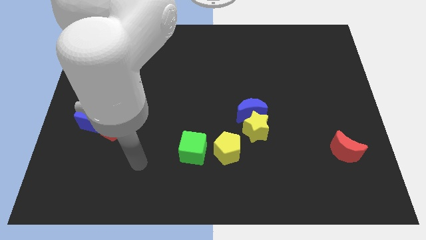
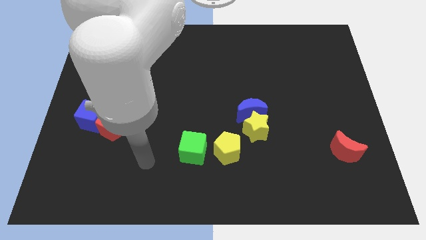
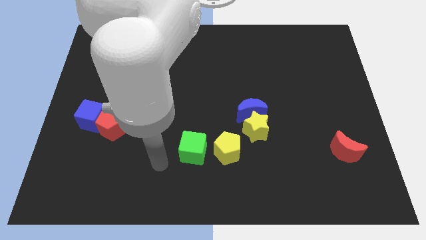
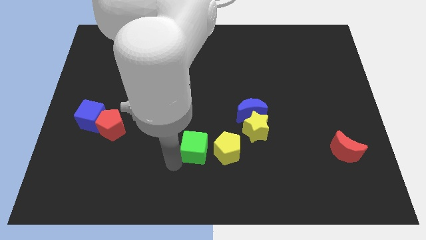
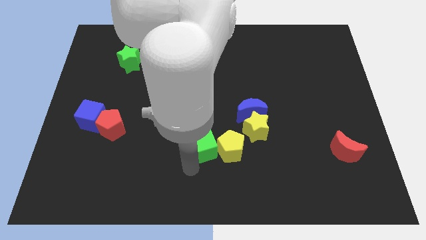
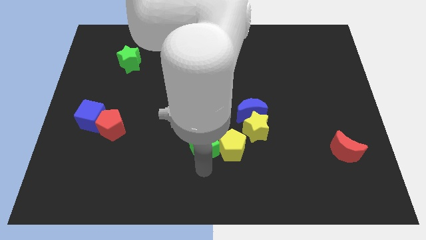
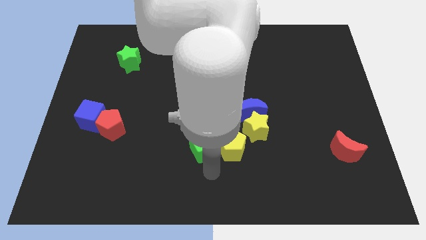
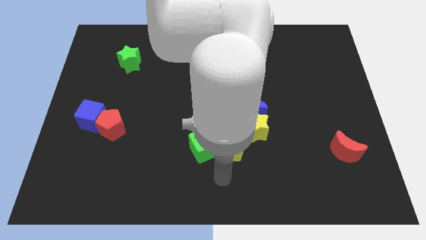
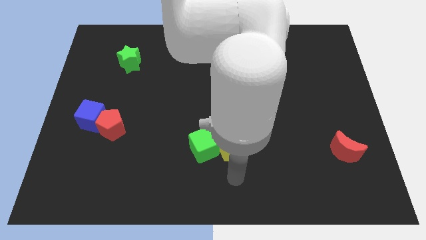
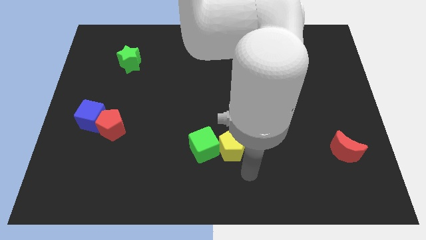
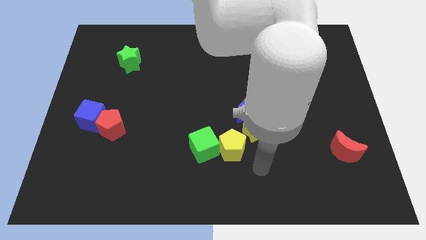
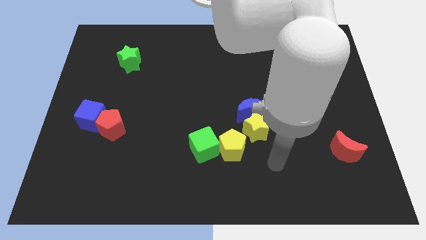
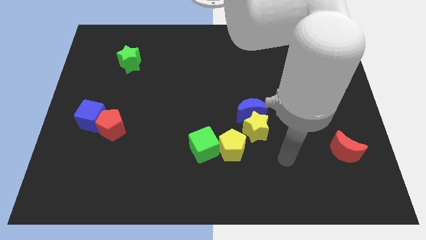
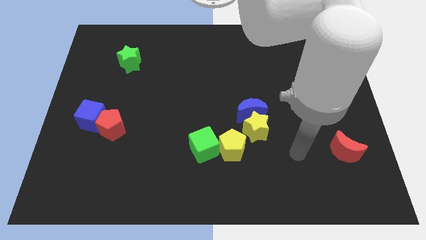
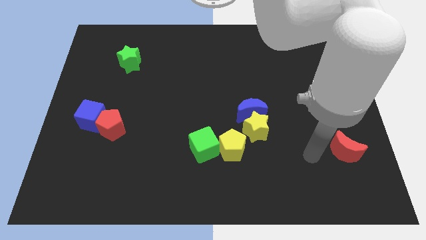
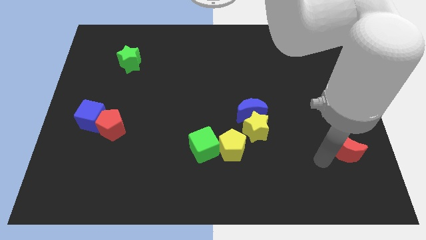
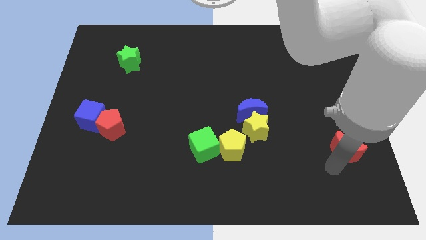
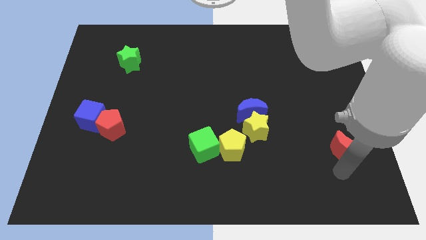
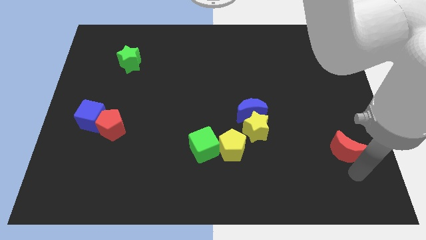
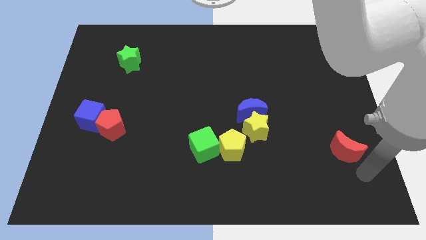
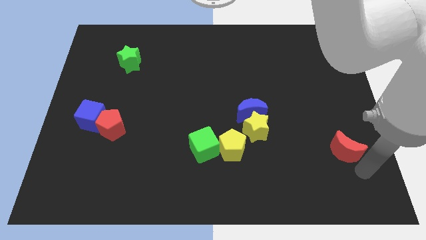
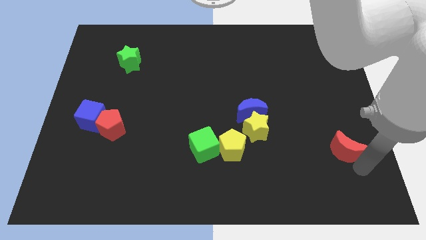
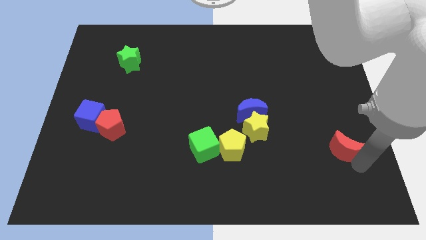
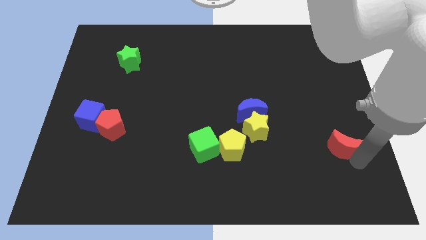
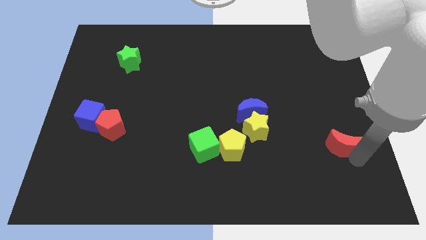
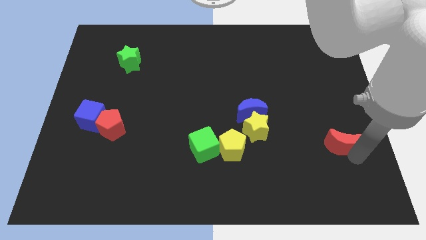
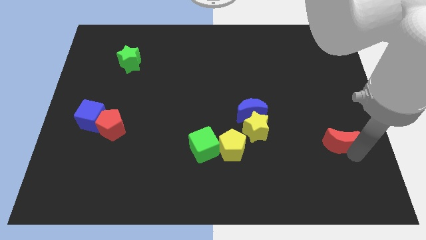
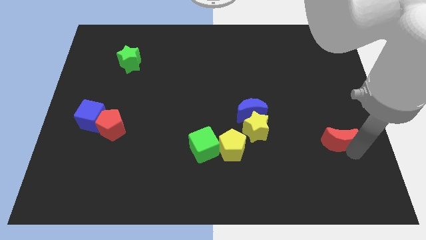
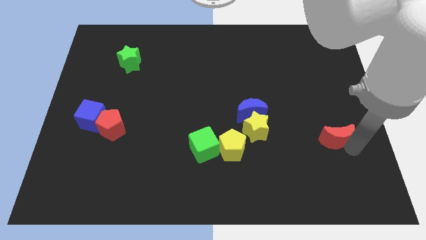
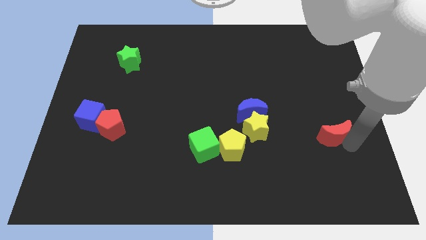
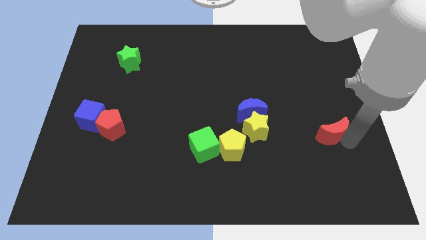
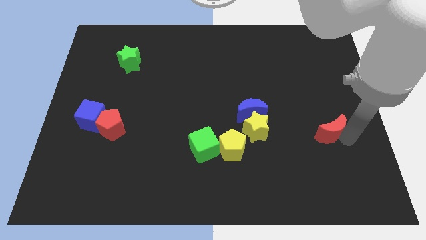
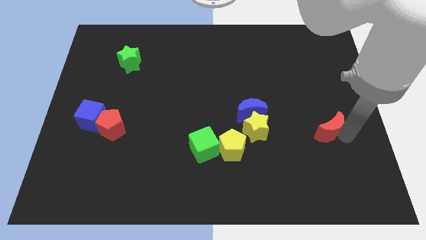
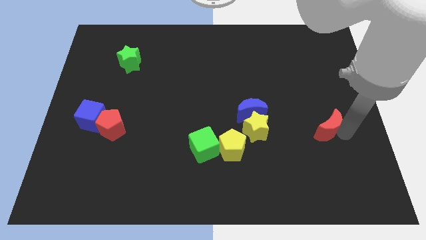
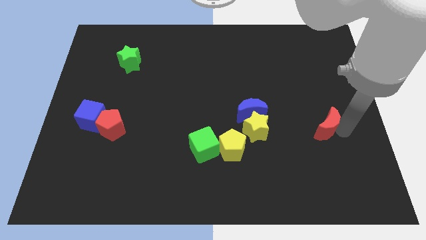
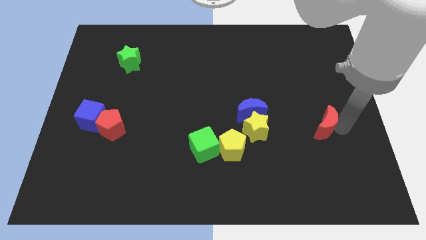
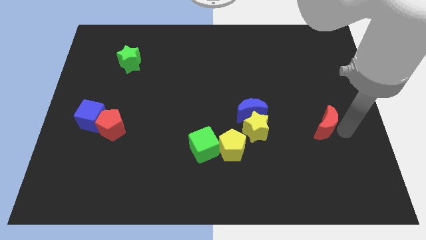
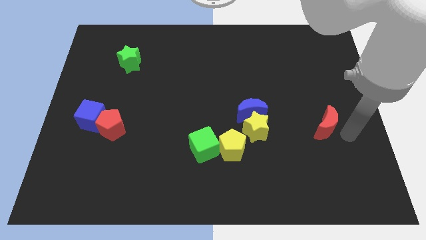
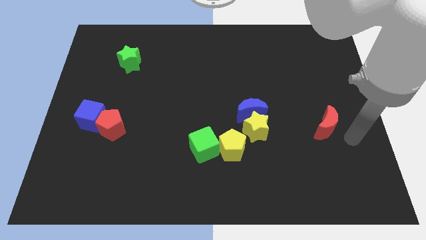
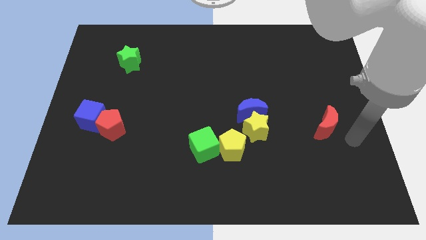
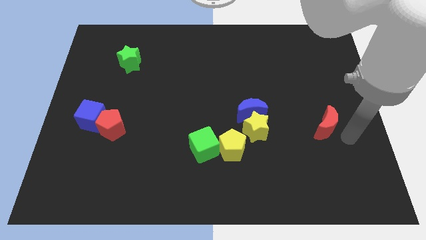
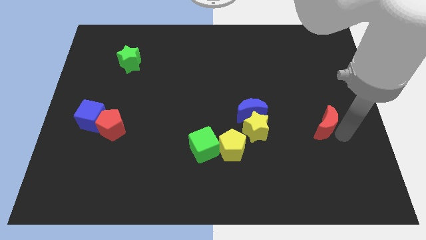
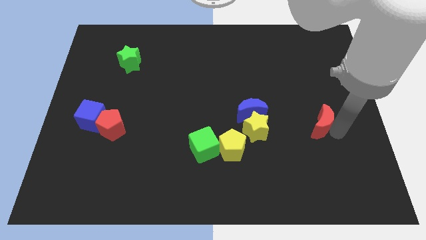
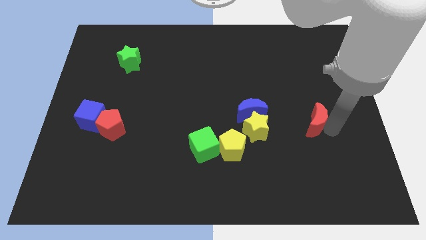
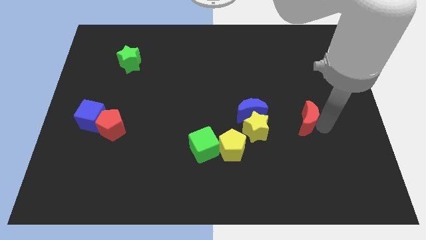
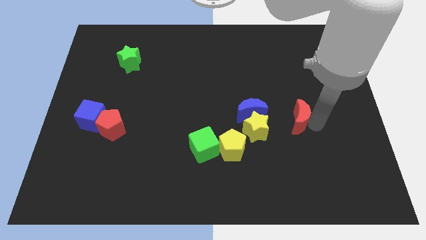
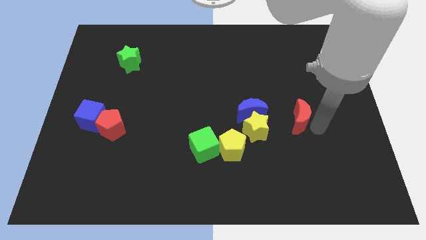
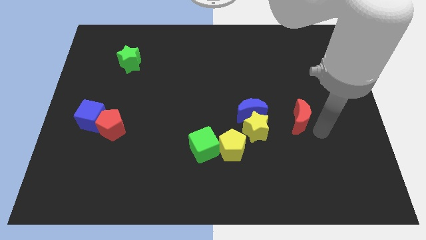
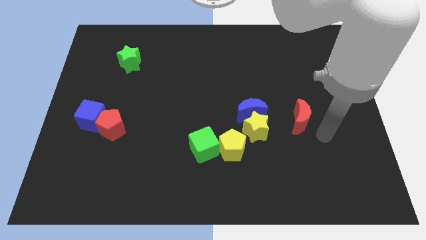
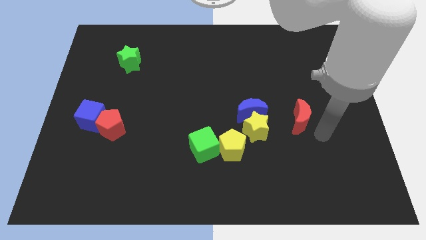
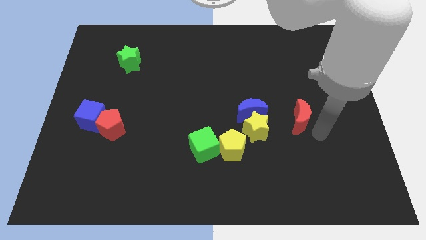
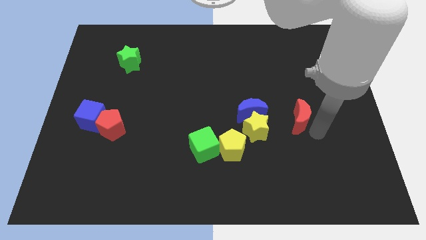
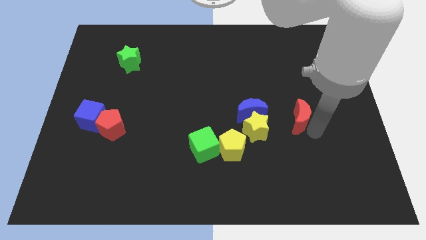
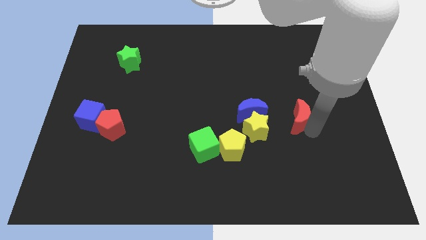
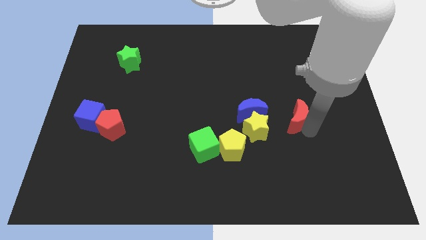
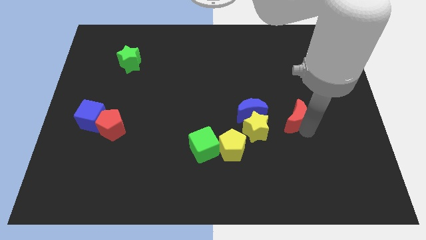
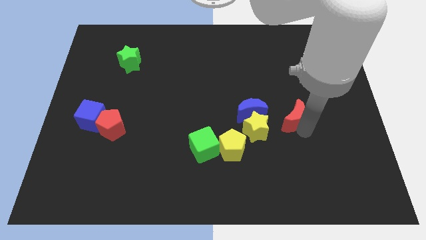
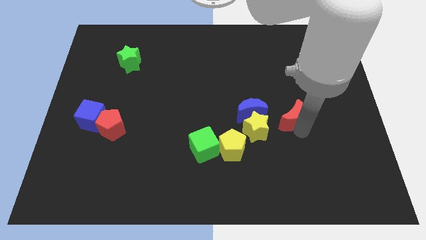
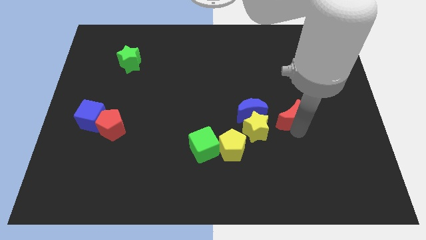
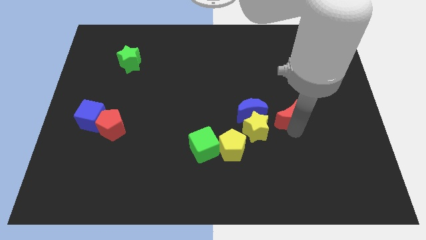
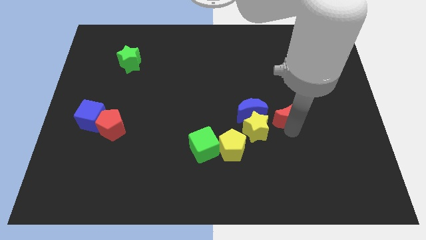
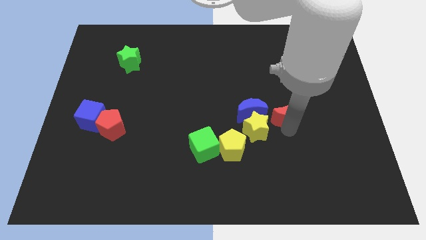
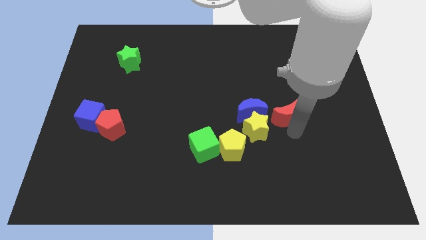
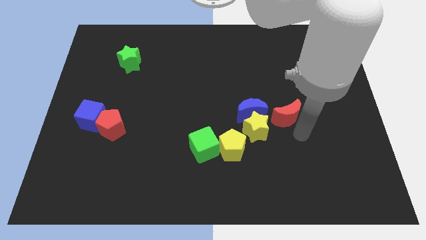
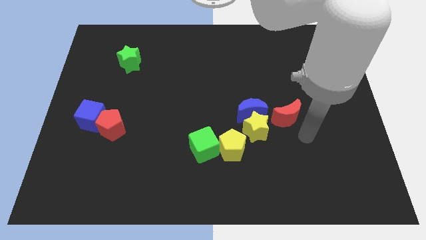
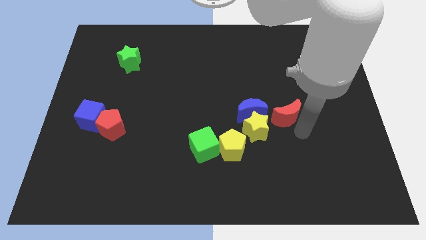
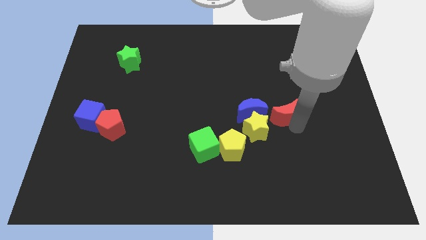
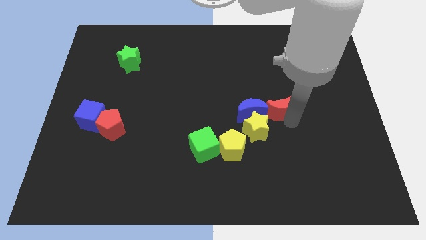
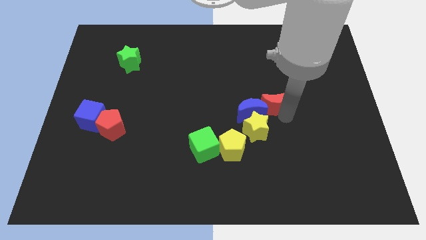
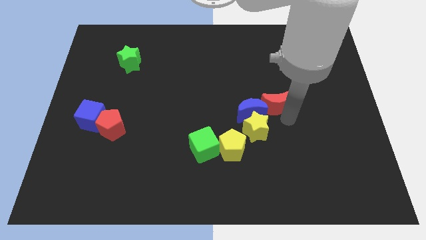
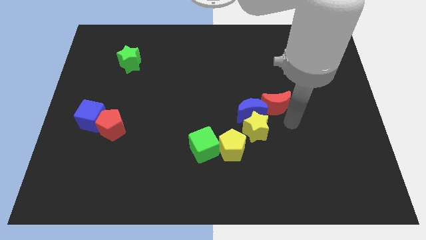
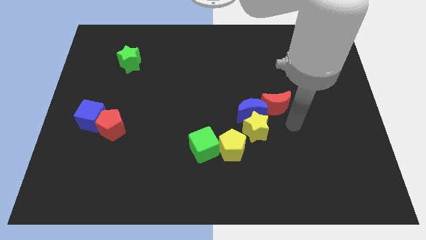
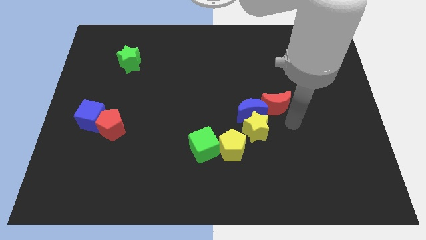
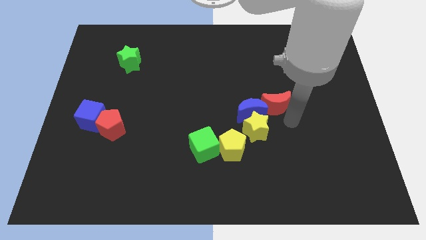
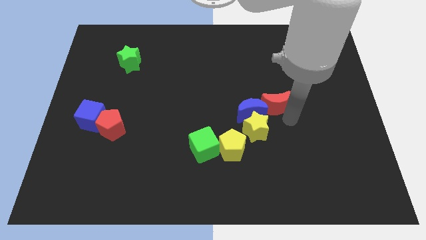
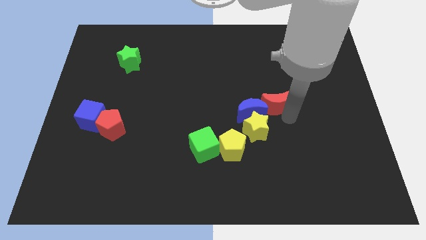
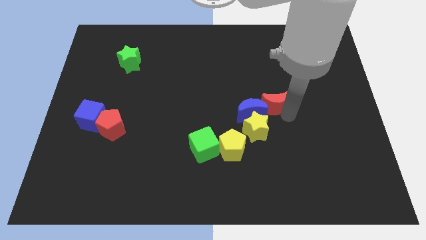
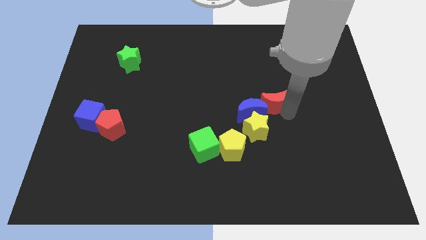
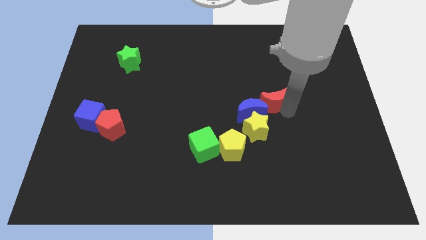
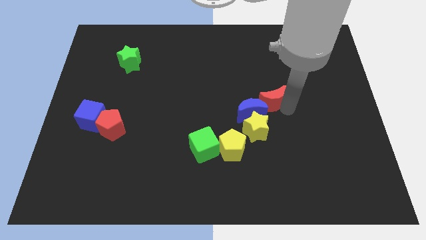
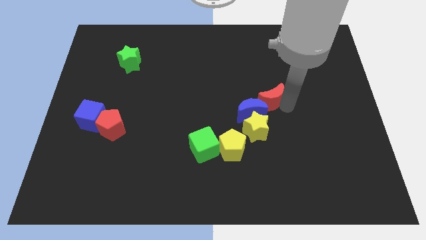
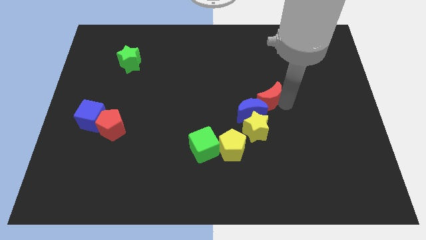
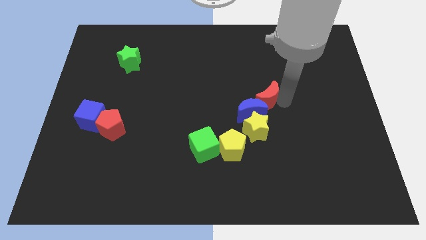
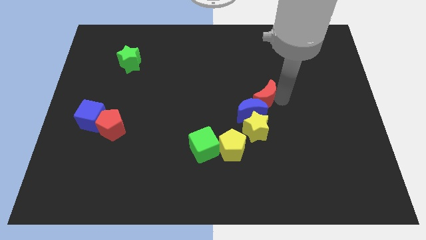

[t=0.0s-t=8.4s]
move the red moon to the middle of the board
